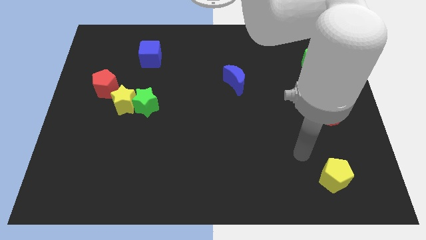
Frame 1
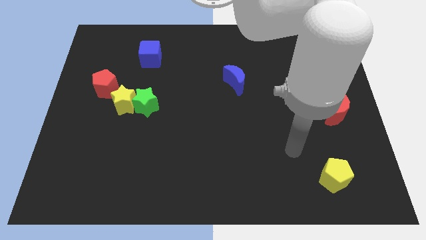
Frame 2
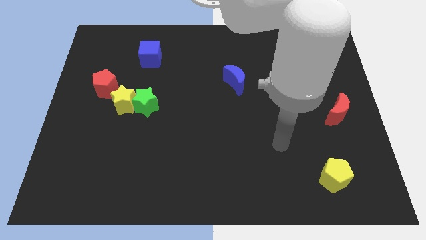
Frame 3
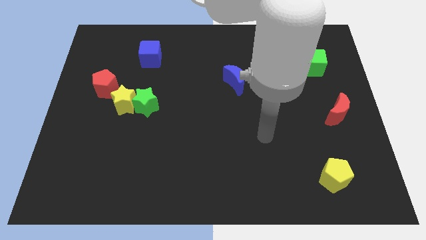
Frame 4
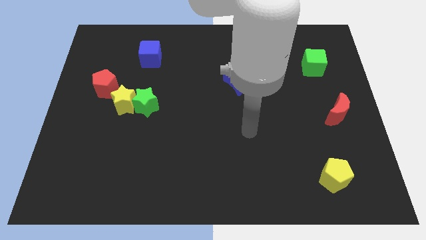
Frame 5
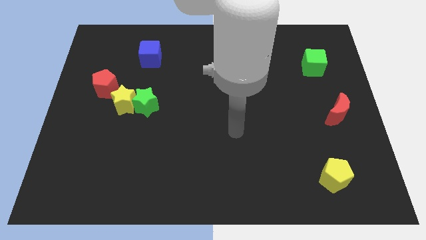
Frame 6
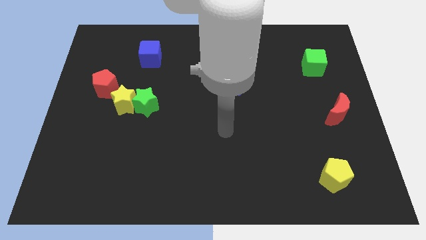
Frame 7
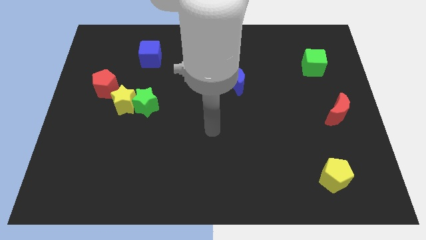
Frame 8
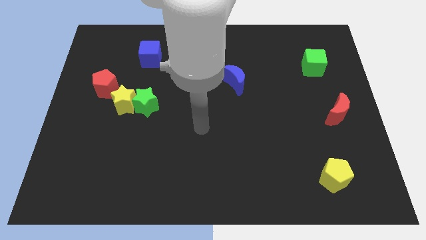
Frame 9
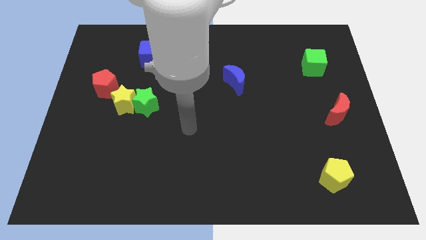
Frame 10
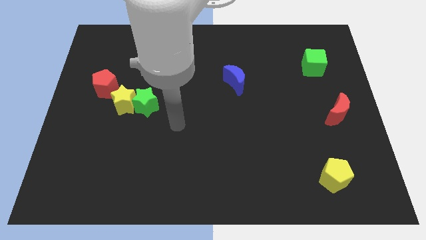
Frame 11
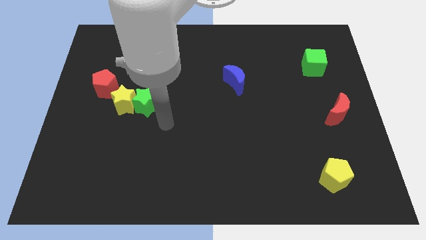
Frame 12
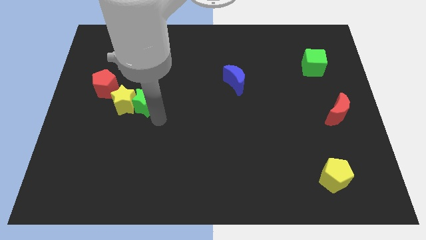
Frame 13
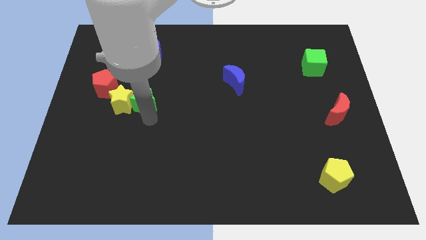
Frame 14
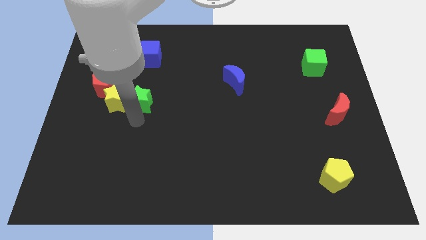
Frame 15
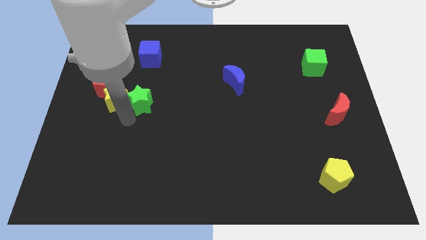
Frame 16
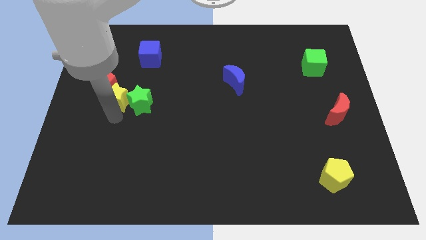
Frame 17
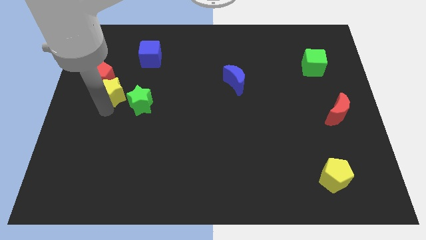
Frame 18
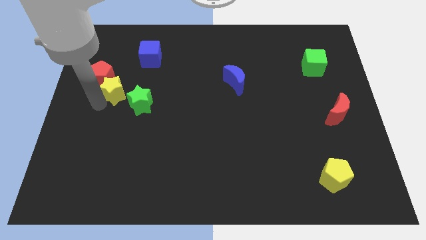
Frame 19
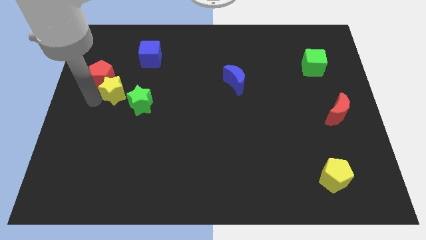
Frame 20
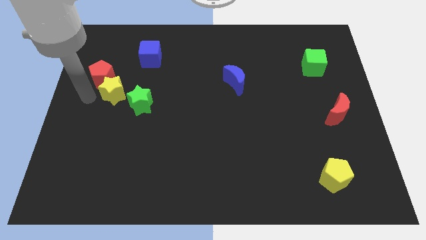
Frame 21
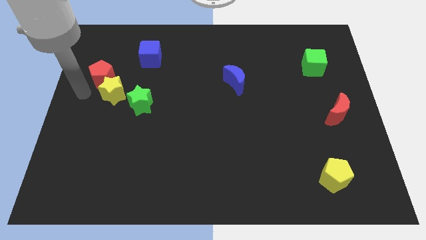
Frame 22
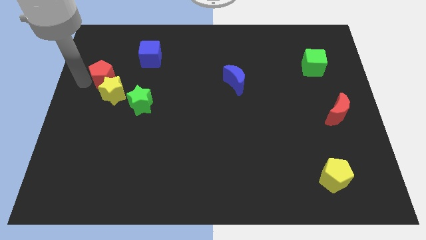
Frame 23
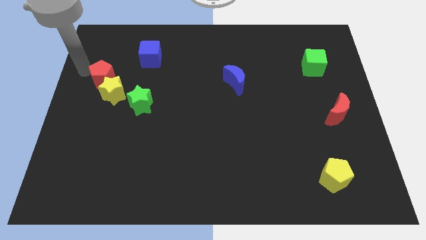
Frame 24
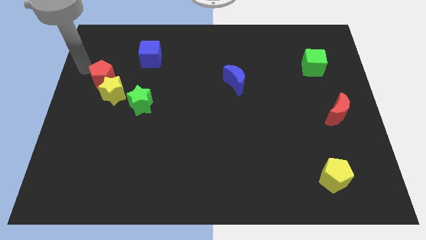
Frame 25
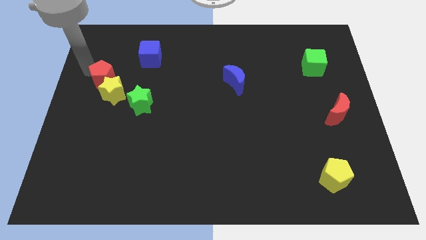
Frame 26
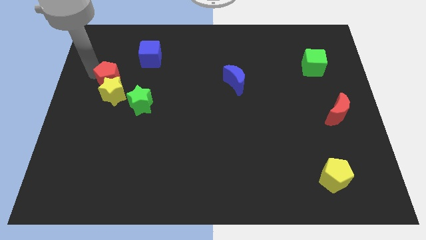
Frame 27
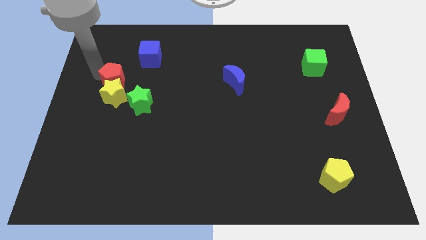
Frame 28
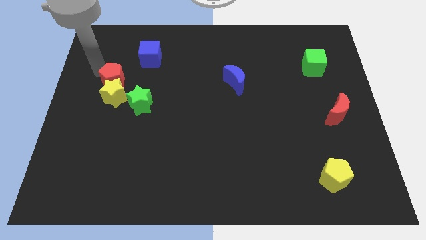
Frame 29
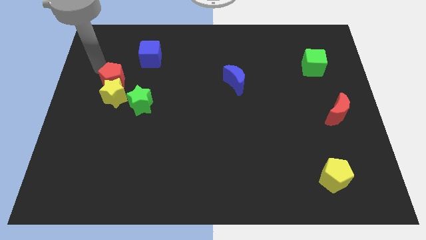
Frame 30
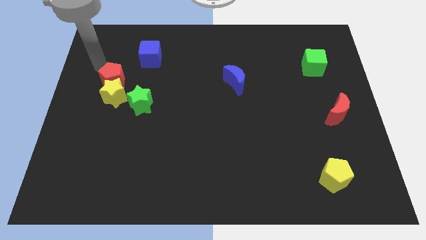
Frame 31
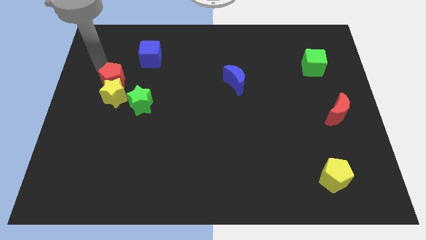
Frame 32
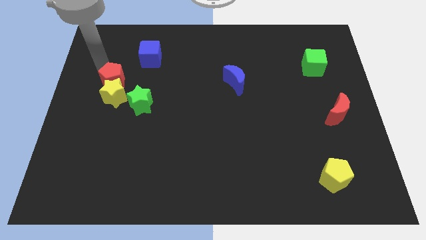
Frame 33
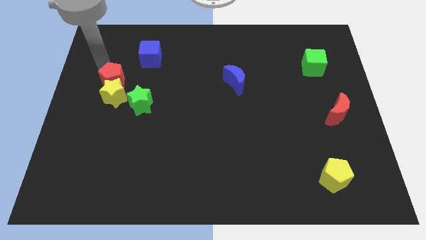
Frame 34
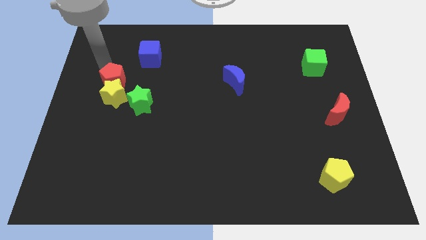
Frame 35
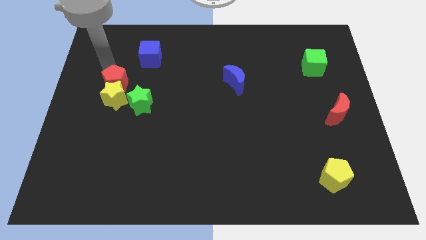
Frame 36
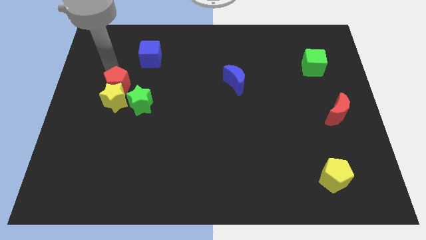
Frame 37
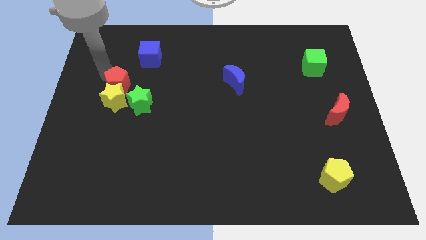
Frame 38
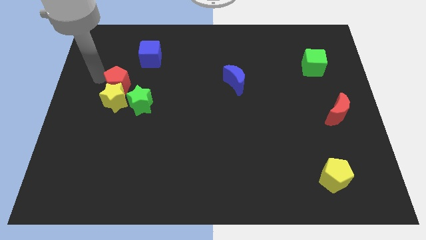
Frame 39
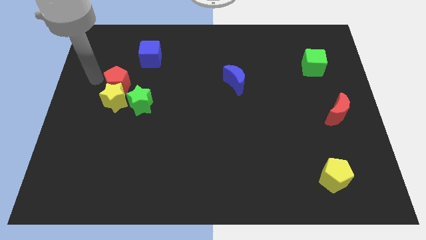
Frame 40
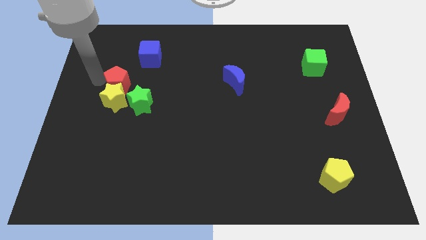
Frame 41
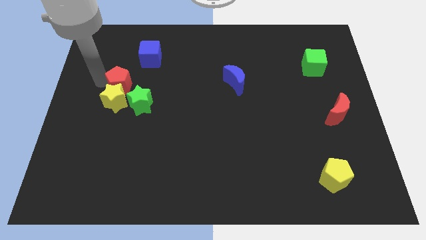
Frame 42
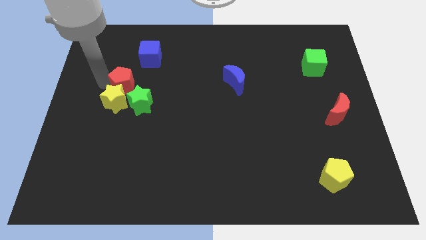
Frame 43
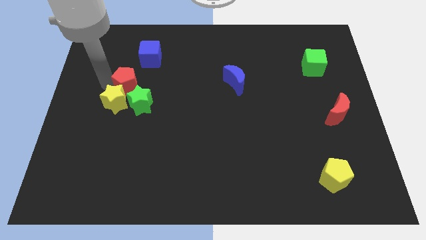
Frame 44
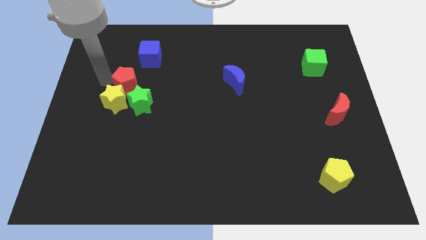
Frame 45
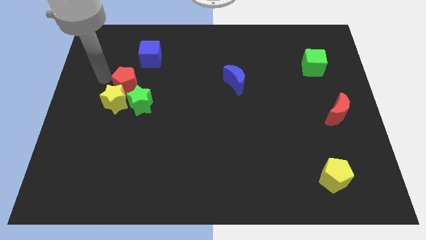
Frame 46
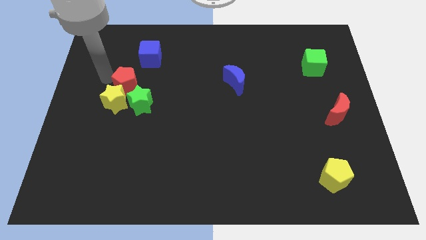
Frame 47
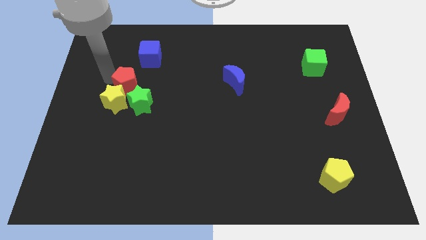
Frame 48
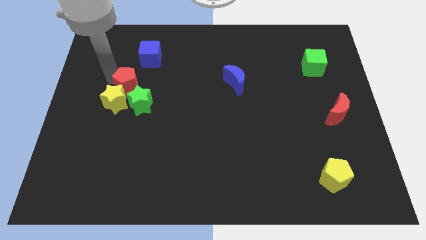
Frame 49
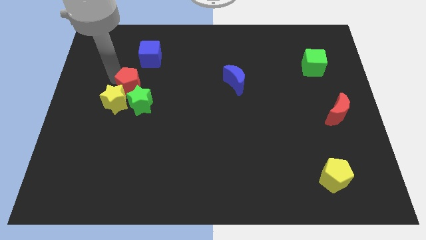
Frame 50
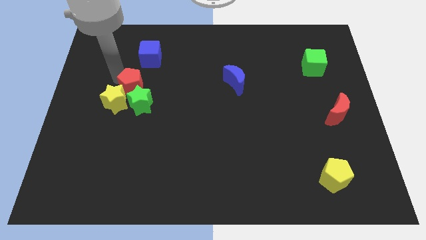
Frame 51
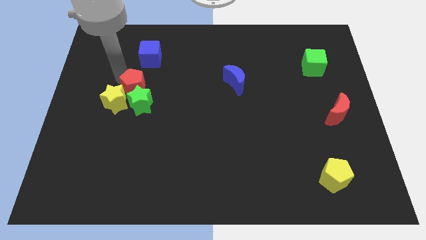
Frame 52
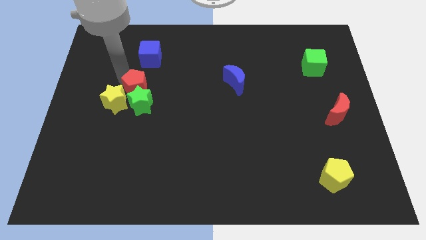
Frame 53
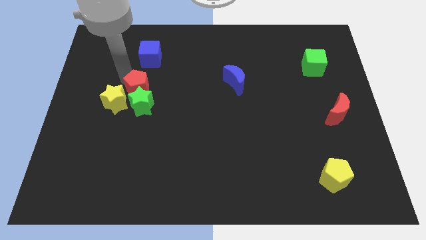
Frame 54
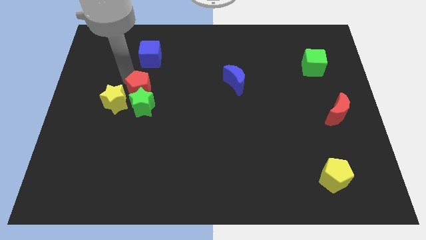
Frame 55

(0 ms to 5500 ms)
move the red pentagon diagonally up and to the right of the green star

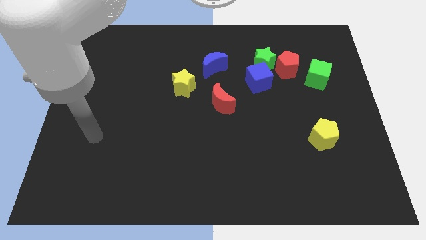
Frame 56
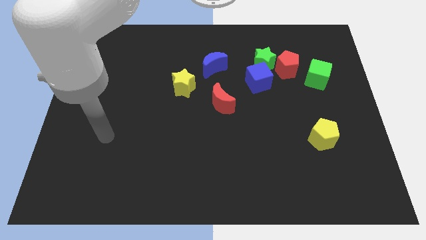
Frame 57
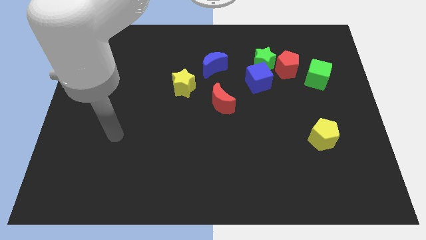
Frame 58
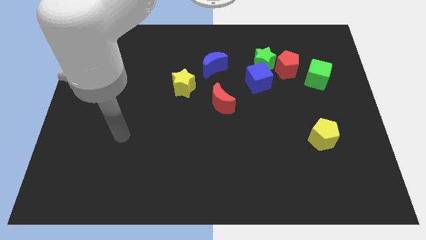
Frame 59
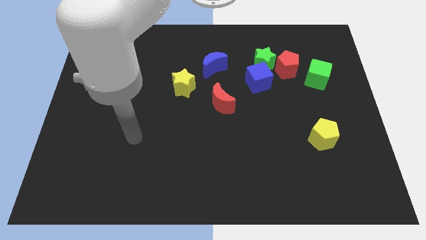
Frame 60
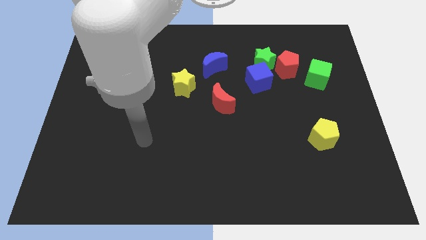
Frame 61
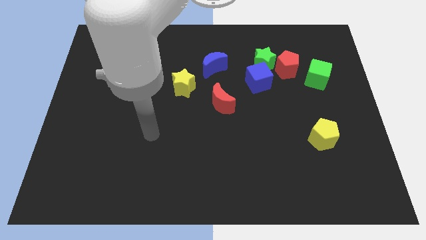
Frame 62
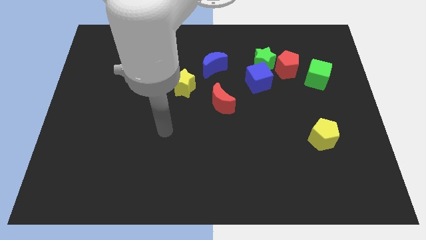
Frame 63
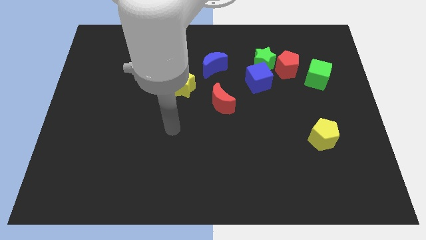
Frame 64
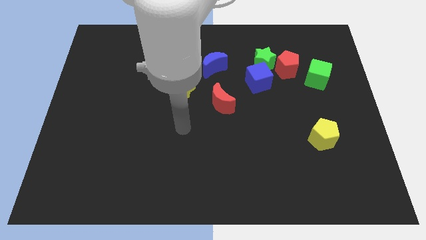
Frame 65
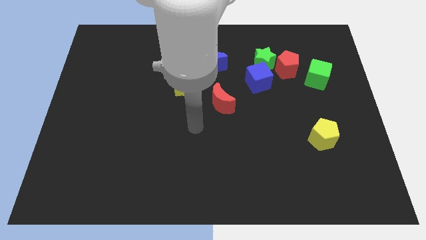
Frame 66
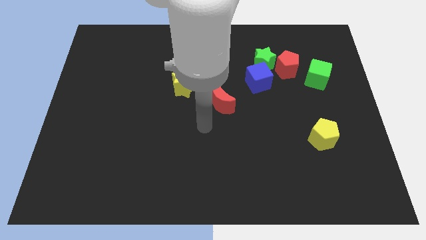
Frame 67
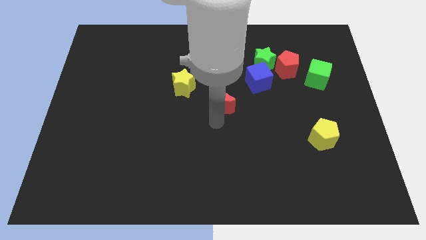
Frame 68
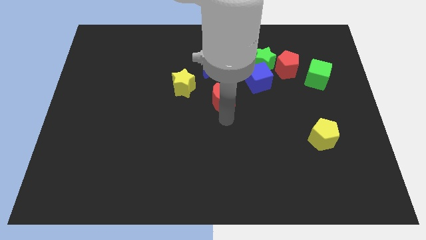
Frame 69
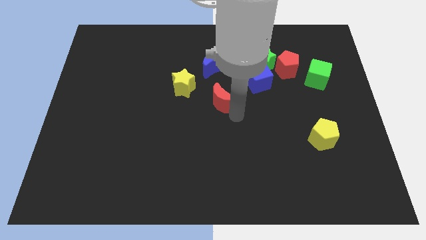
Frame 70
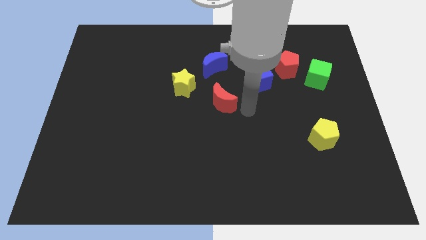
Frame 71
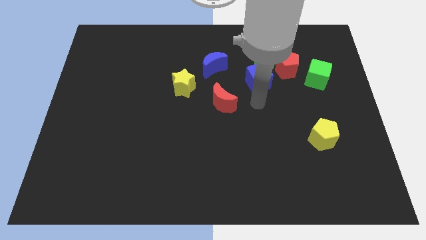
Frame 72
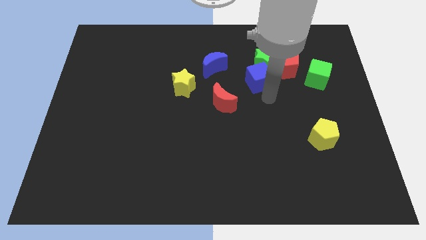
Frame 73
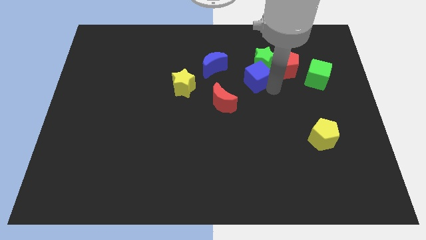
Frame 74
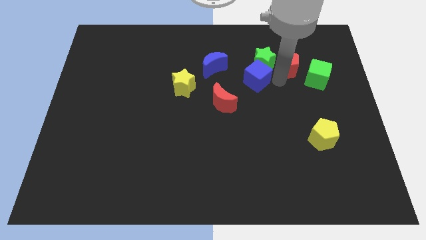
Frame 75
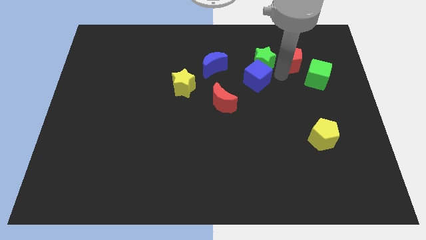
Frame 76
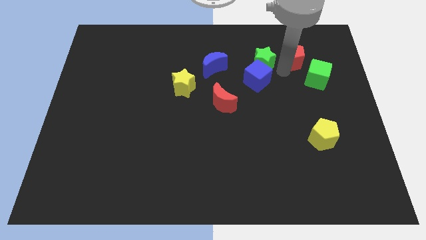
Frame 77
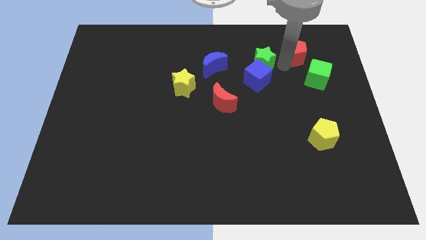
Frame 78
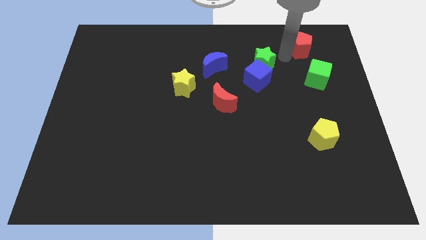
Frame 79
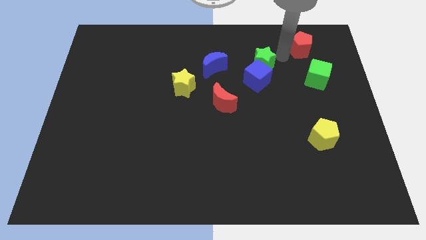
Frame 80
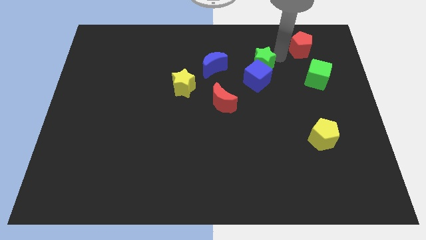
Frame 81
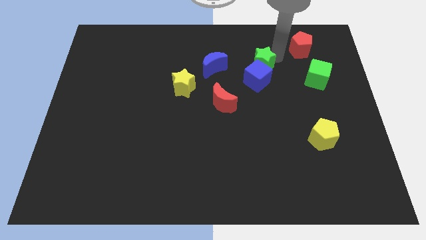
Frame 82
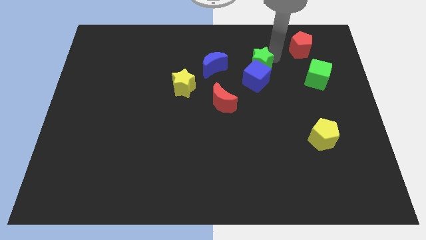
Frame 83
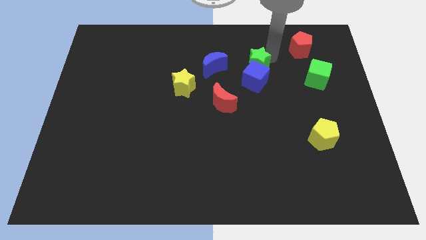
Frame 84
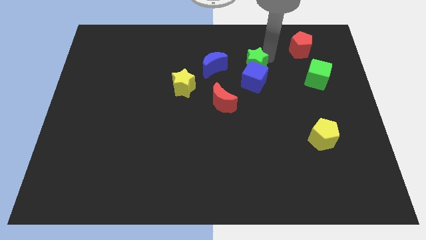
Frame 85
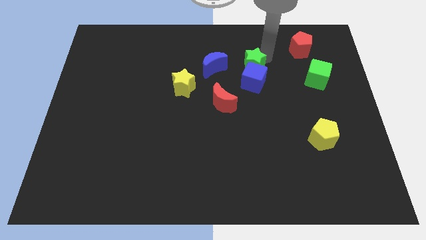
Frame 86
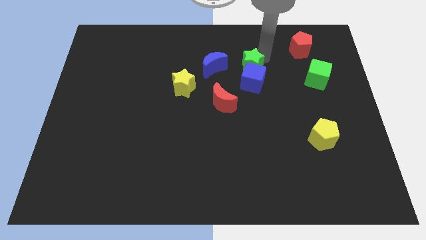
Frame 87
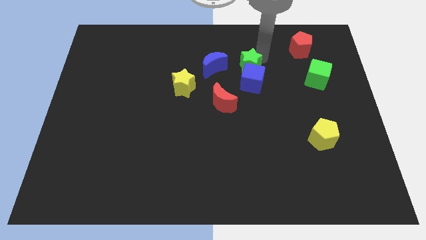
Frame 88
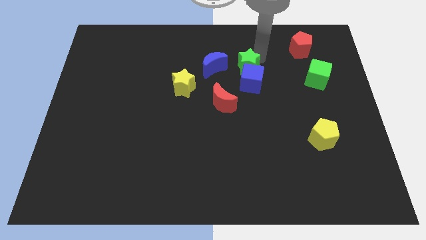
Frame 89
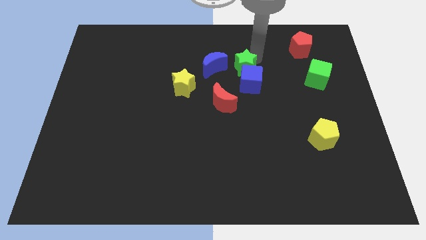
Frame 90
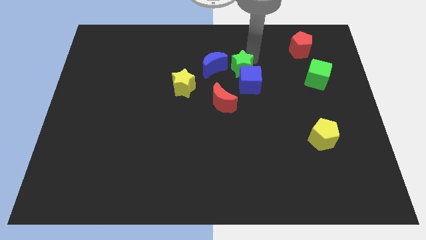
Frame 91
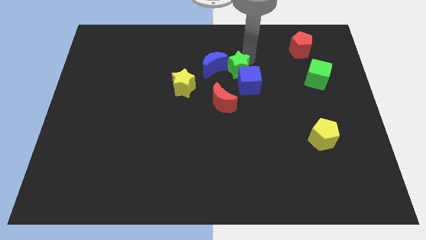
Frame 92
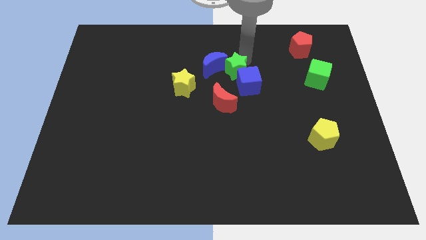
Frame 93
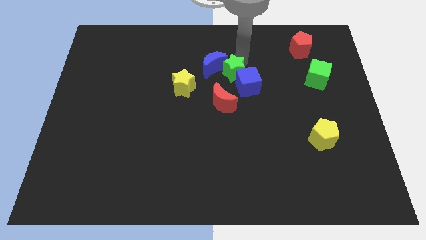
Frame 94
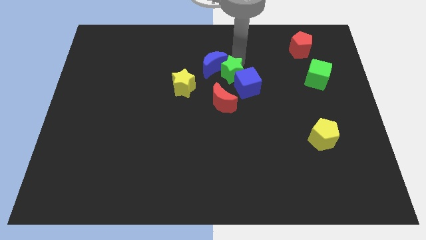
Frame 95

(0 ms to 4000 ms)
slide the green star left of the blue cube
